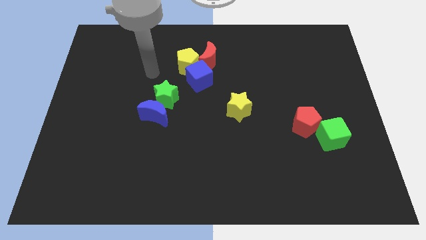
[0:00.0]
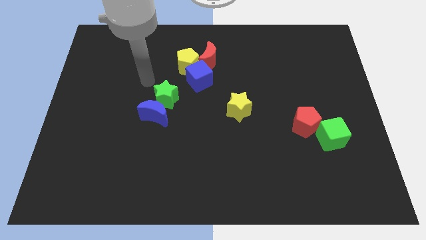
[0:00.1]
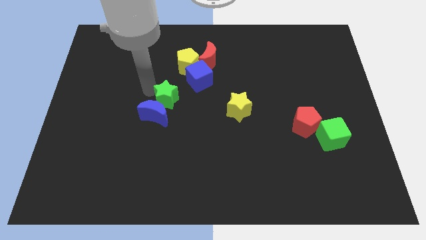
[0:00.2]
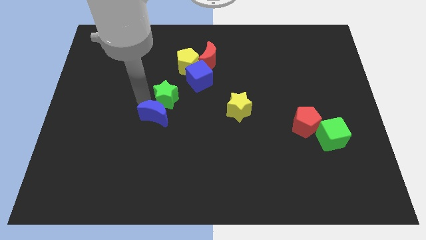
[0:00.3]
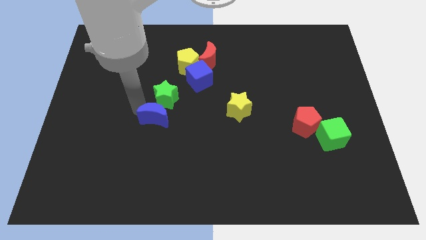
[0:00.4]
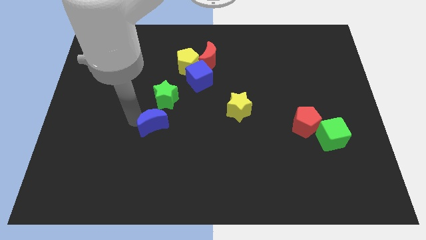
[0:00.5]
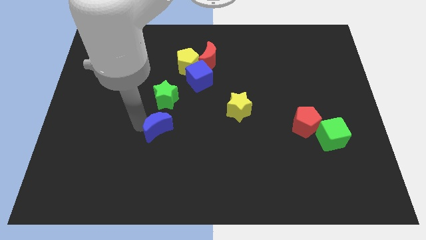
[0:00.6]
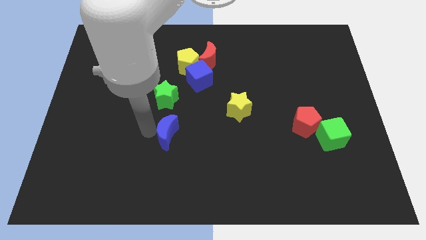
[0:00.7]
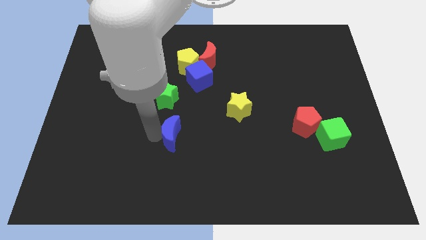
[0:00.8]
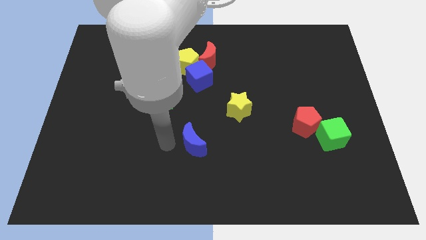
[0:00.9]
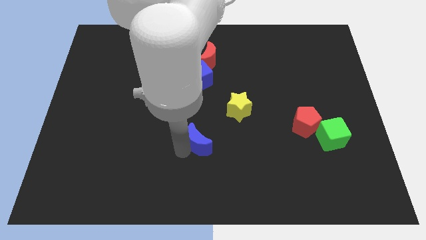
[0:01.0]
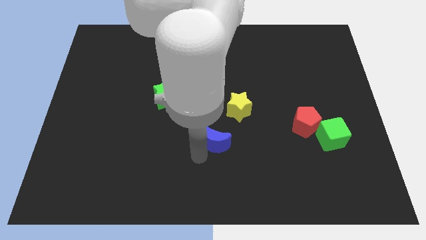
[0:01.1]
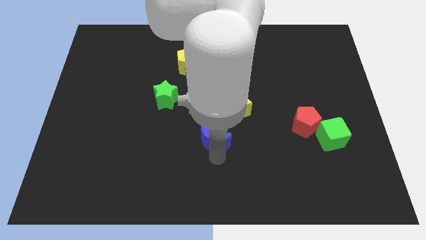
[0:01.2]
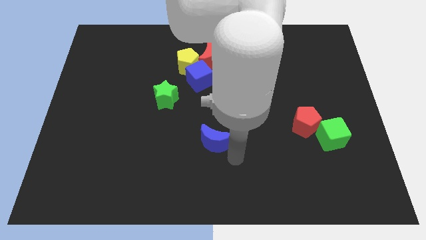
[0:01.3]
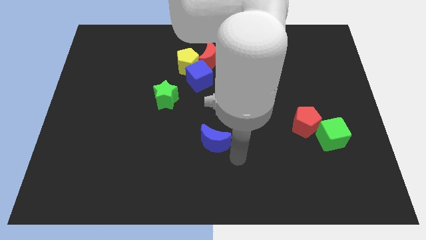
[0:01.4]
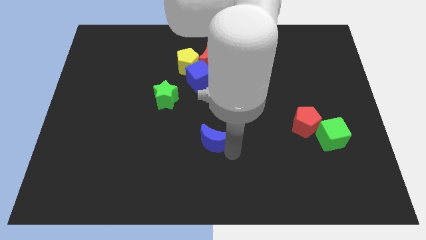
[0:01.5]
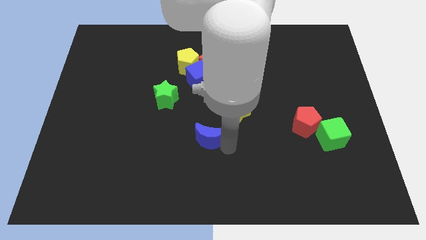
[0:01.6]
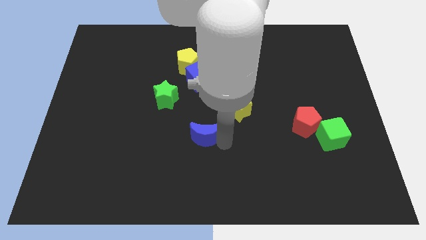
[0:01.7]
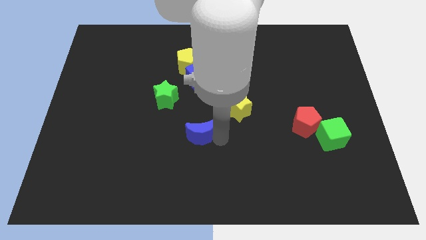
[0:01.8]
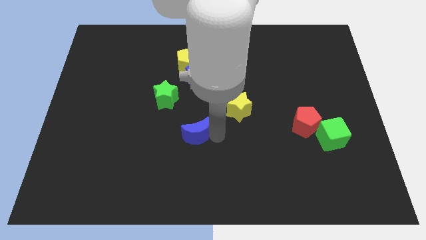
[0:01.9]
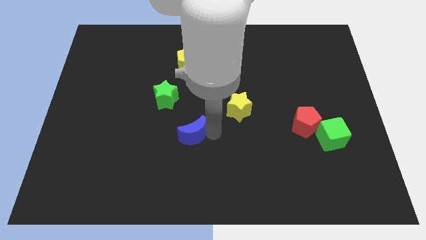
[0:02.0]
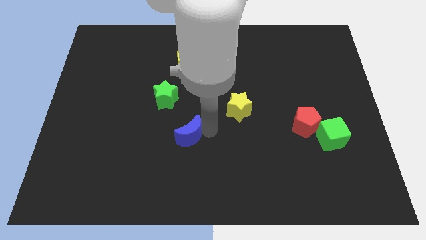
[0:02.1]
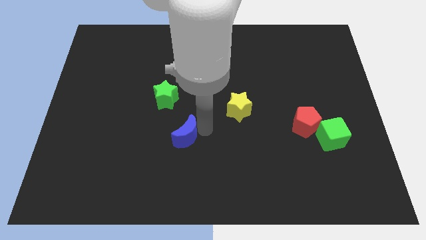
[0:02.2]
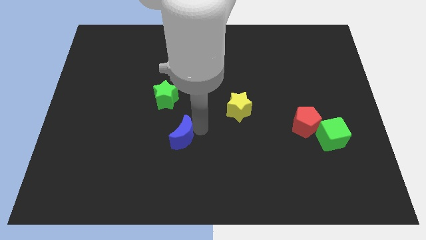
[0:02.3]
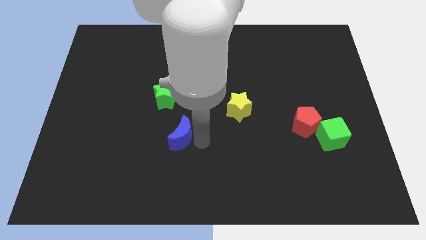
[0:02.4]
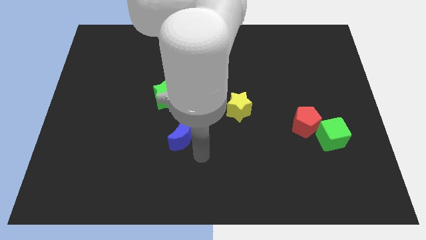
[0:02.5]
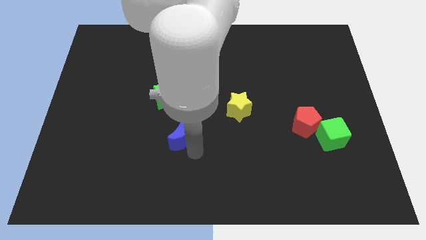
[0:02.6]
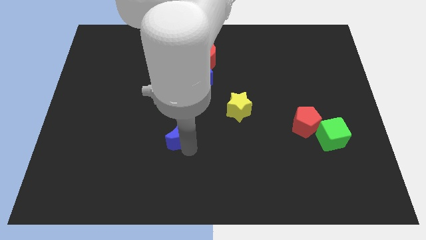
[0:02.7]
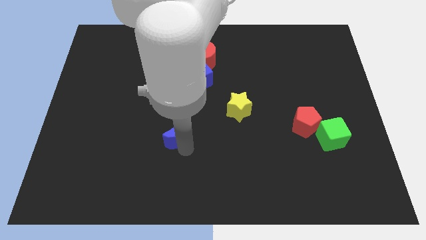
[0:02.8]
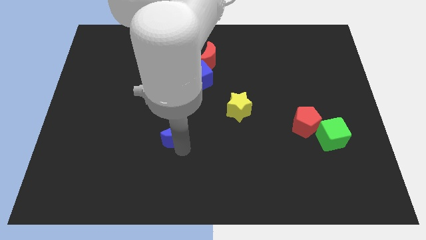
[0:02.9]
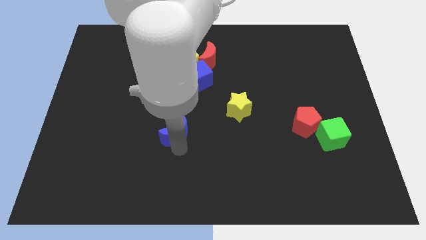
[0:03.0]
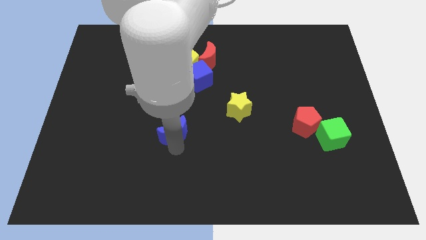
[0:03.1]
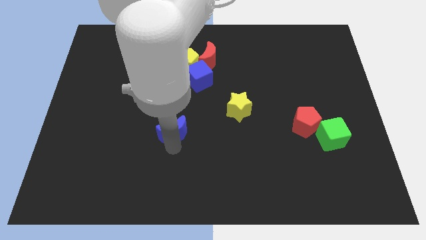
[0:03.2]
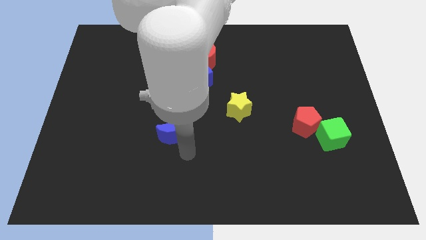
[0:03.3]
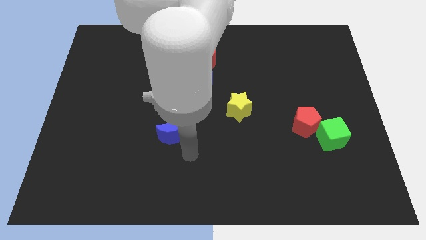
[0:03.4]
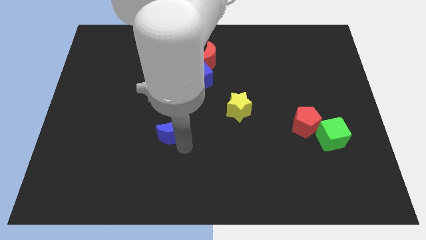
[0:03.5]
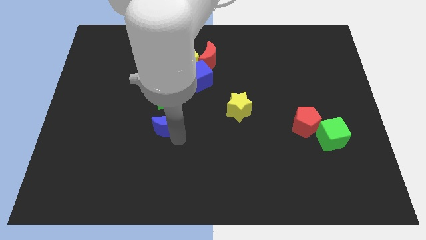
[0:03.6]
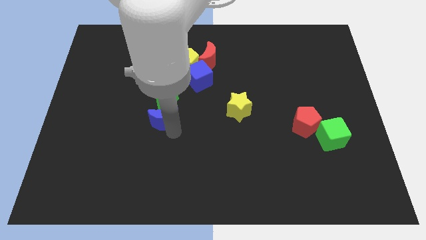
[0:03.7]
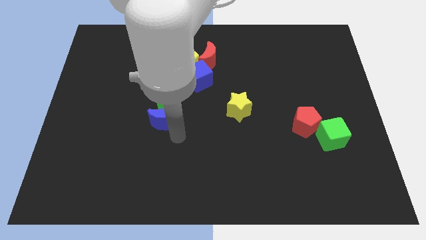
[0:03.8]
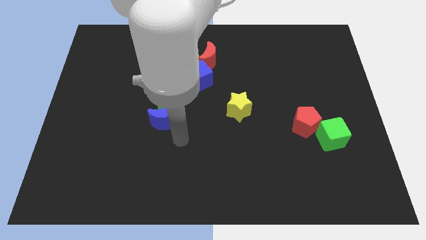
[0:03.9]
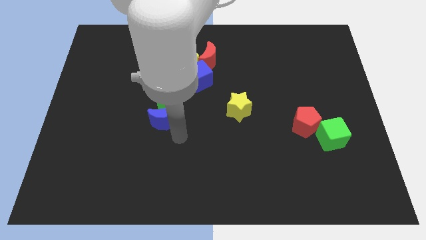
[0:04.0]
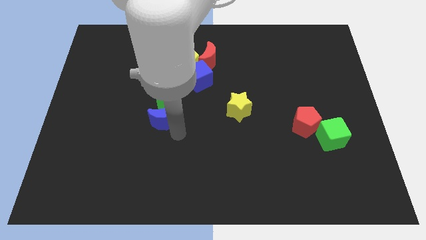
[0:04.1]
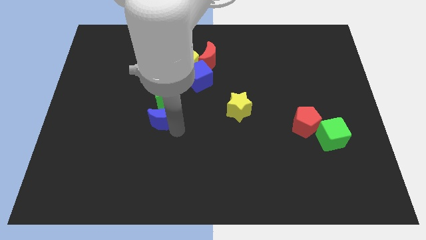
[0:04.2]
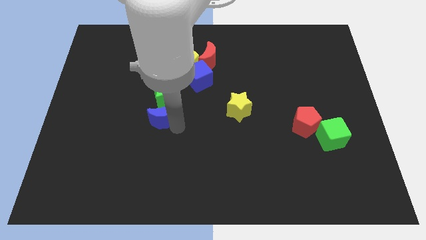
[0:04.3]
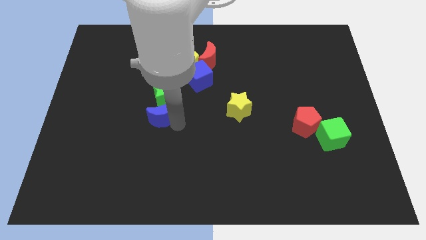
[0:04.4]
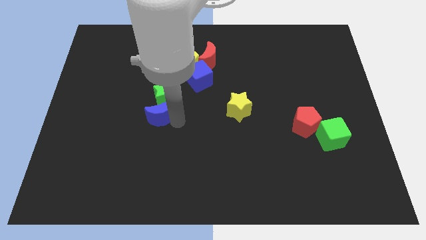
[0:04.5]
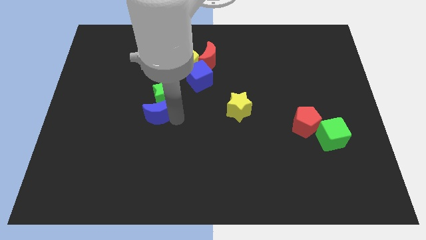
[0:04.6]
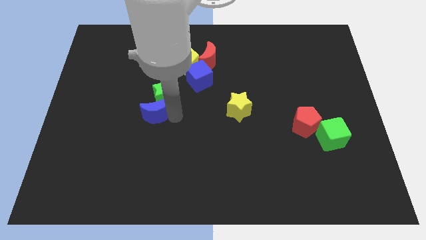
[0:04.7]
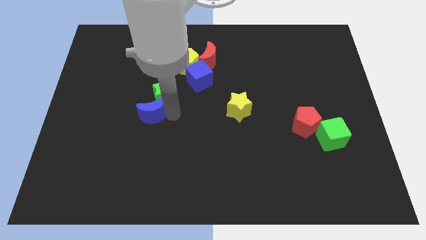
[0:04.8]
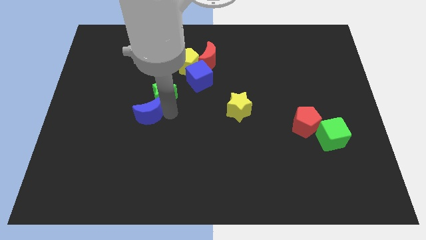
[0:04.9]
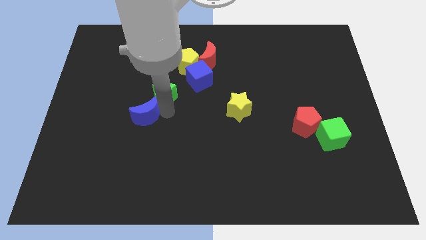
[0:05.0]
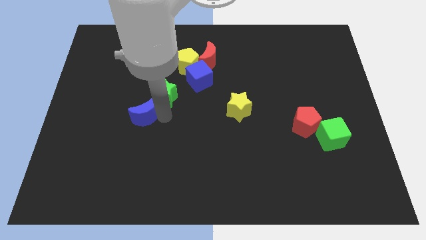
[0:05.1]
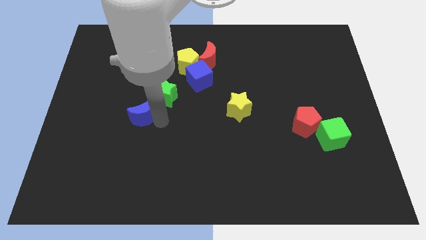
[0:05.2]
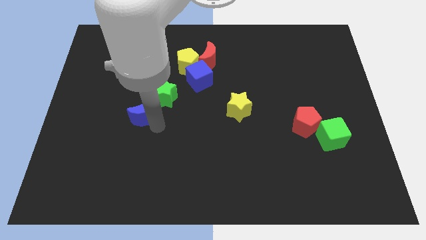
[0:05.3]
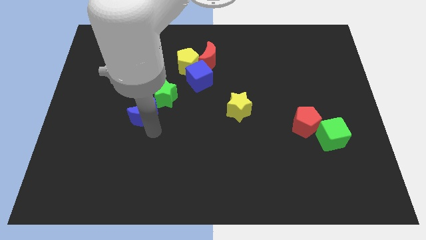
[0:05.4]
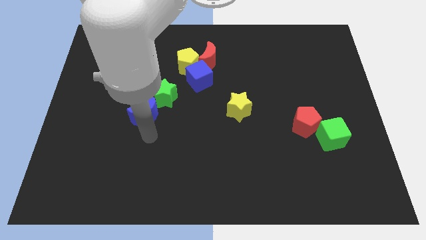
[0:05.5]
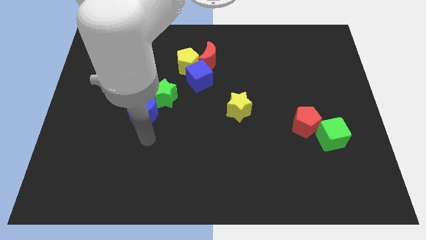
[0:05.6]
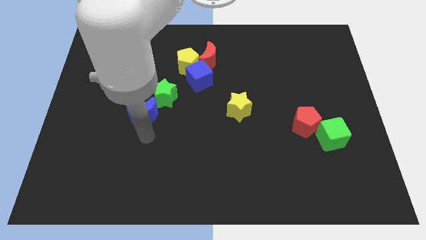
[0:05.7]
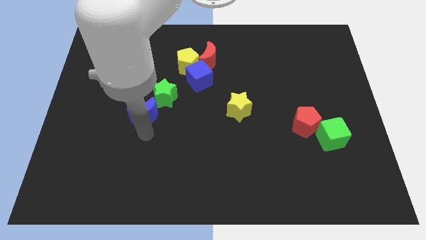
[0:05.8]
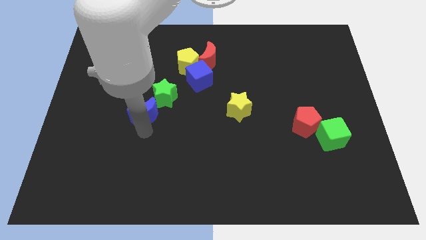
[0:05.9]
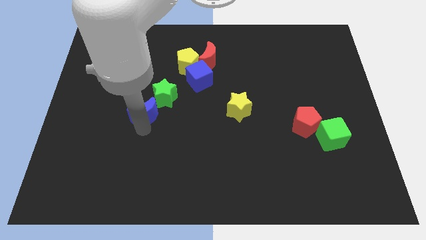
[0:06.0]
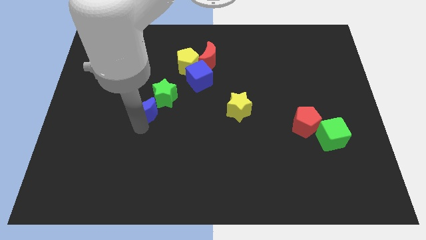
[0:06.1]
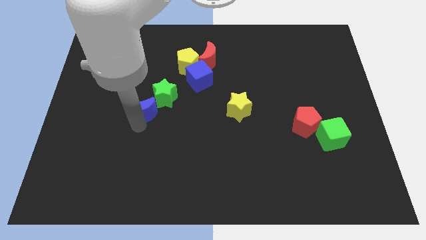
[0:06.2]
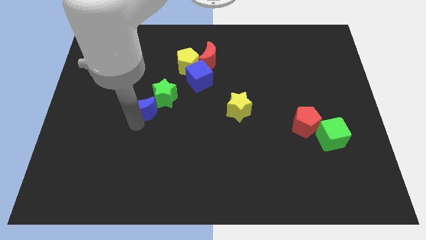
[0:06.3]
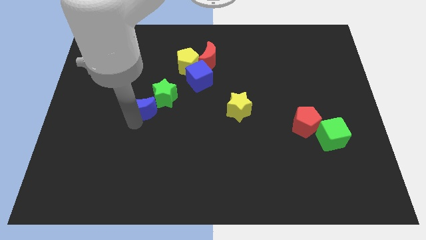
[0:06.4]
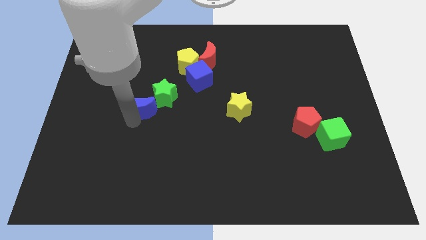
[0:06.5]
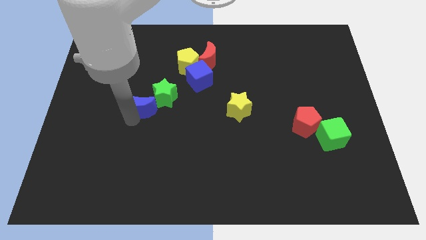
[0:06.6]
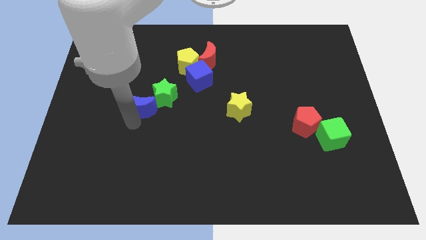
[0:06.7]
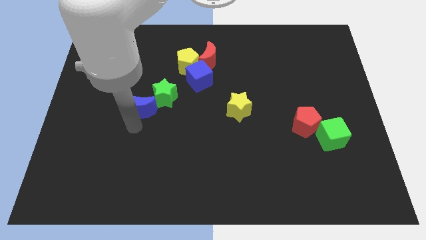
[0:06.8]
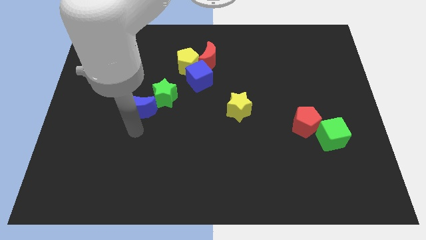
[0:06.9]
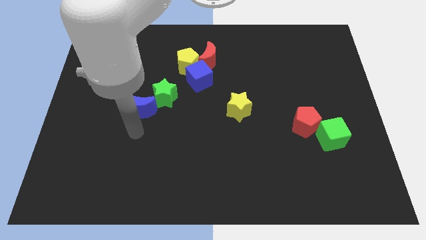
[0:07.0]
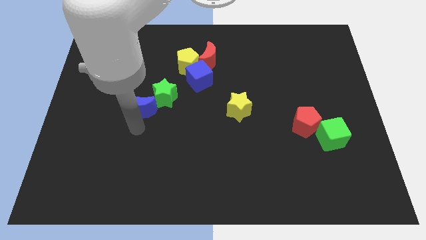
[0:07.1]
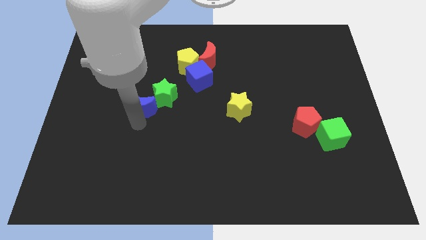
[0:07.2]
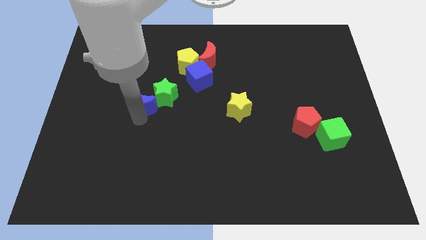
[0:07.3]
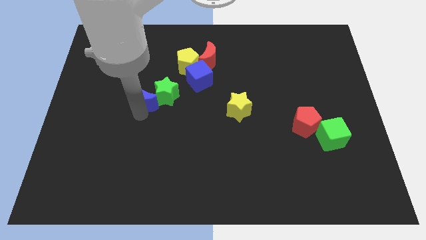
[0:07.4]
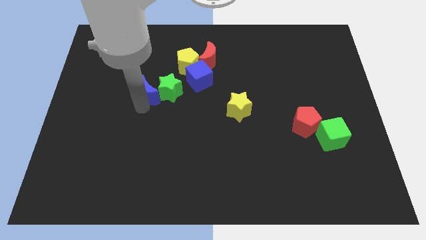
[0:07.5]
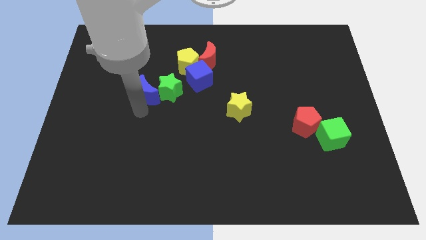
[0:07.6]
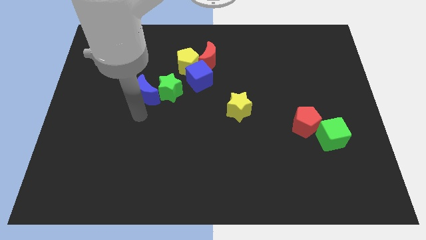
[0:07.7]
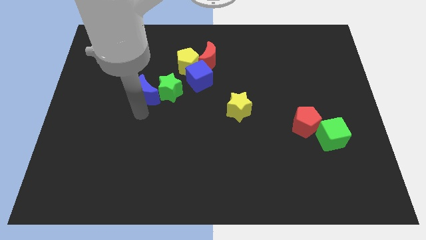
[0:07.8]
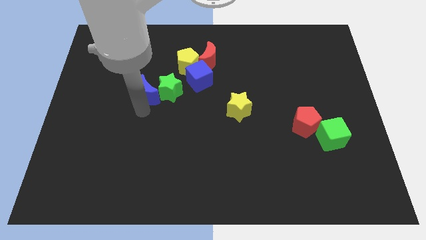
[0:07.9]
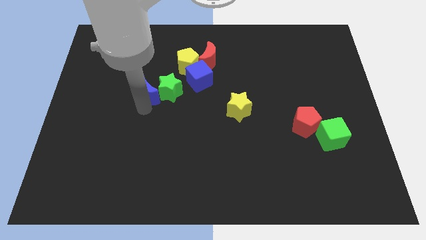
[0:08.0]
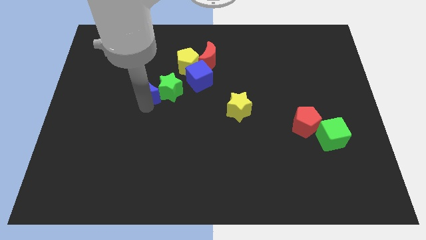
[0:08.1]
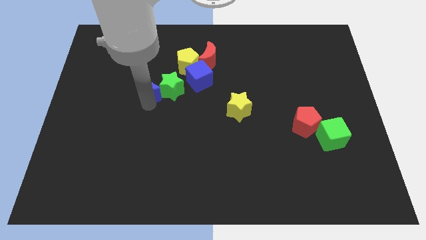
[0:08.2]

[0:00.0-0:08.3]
push the blue moon a bit up
